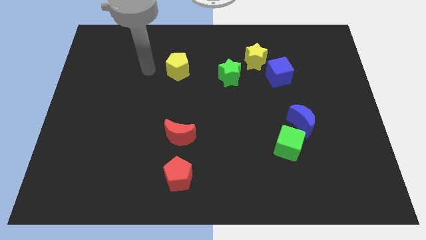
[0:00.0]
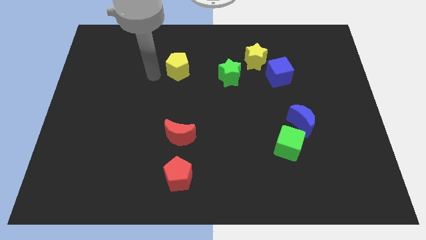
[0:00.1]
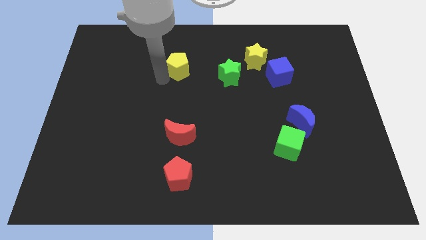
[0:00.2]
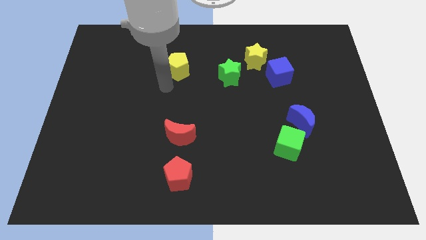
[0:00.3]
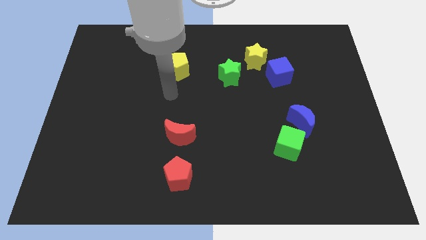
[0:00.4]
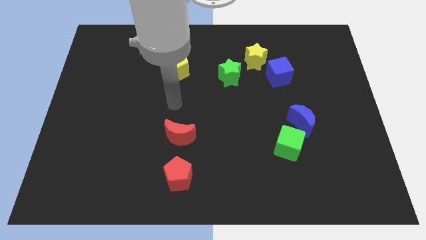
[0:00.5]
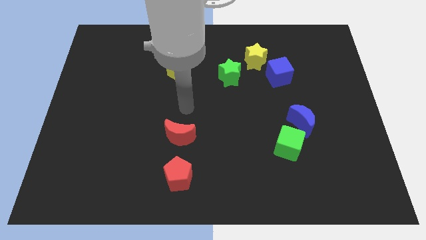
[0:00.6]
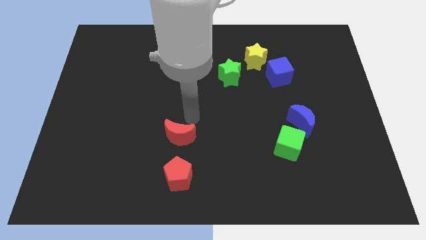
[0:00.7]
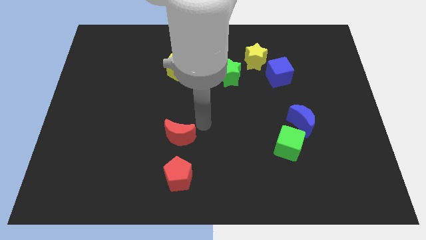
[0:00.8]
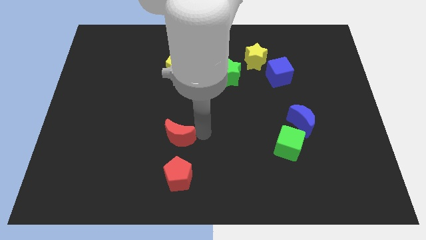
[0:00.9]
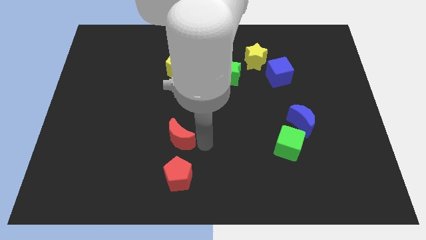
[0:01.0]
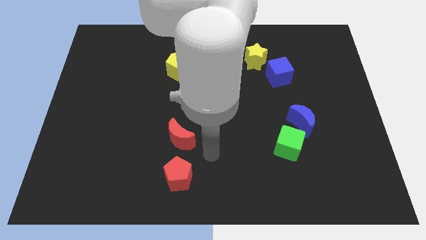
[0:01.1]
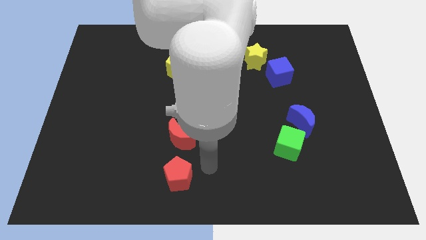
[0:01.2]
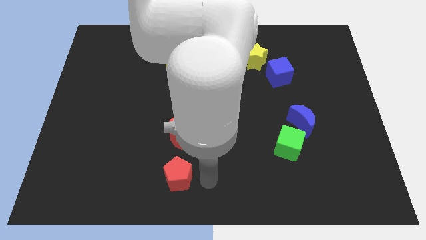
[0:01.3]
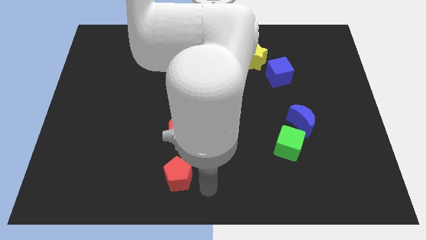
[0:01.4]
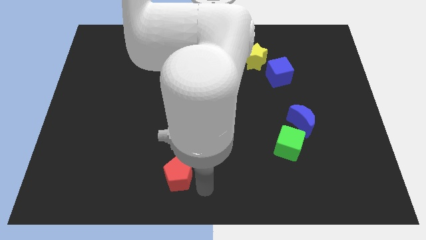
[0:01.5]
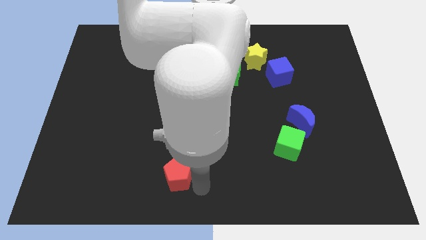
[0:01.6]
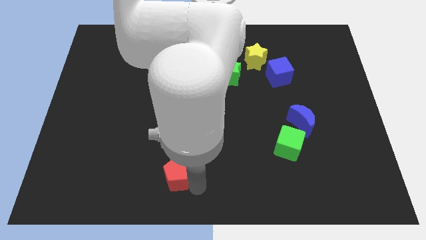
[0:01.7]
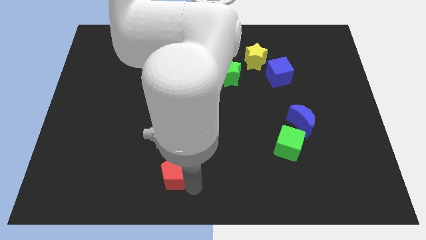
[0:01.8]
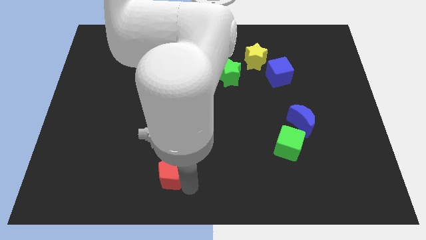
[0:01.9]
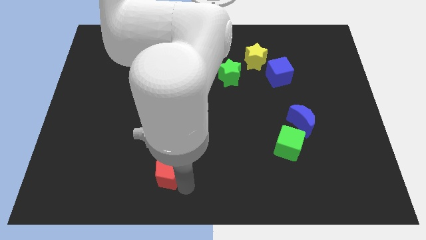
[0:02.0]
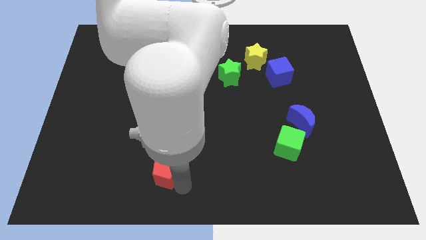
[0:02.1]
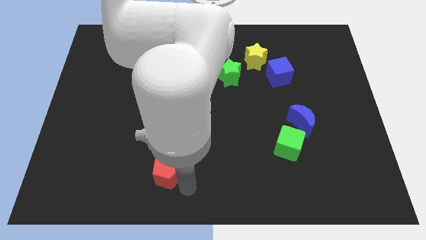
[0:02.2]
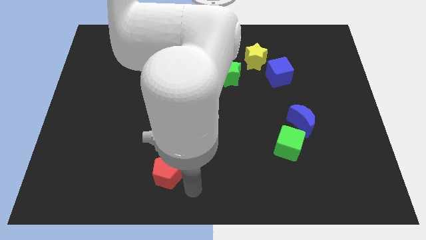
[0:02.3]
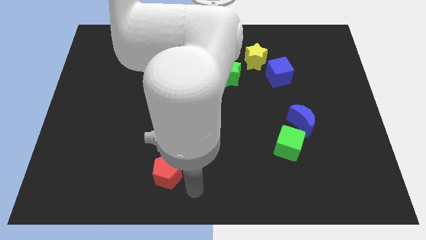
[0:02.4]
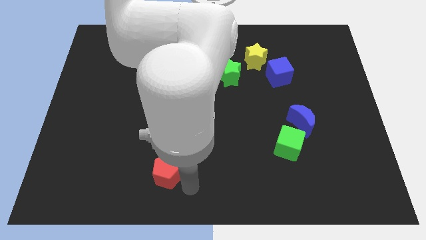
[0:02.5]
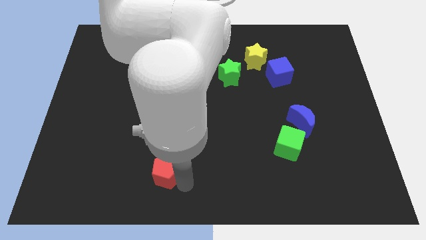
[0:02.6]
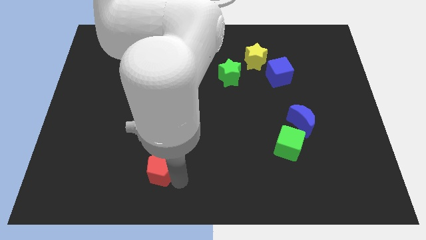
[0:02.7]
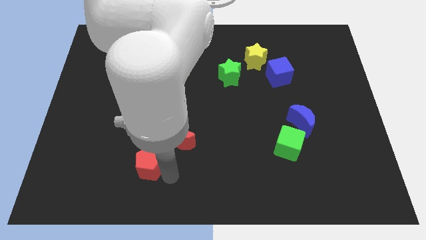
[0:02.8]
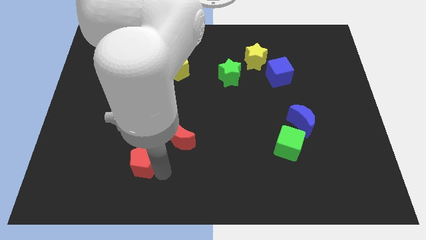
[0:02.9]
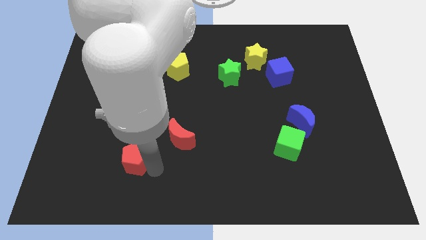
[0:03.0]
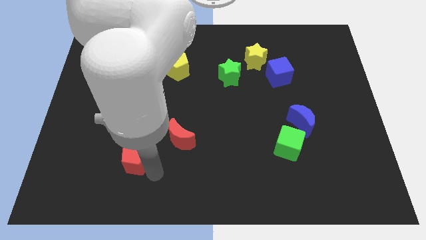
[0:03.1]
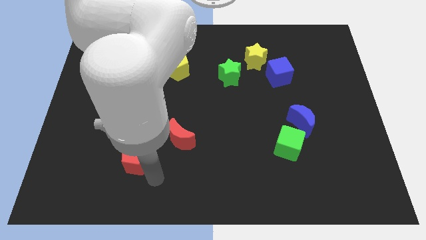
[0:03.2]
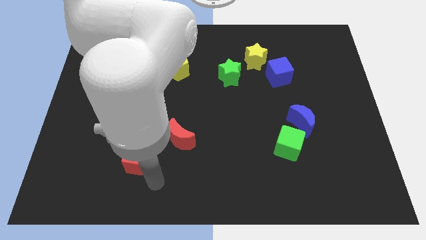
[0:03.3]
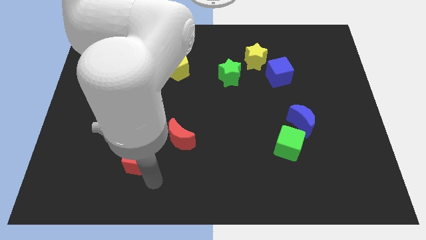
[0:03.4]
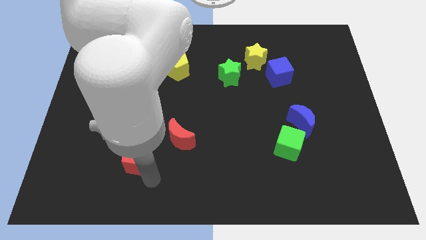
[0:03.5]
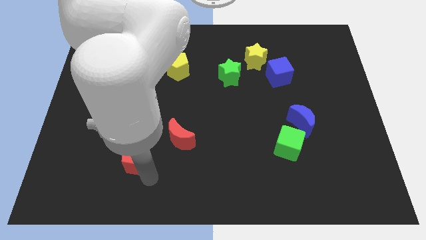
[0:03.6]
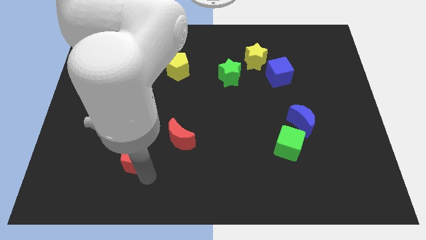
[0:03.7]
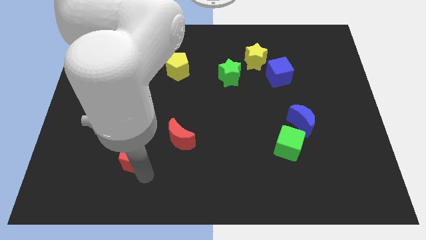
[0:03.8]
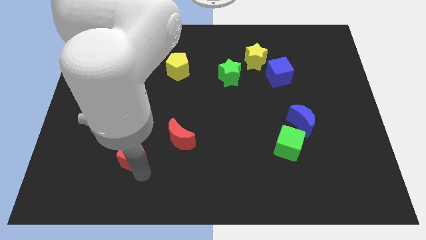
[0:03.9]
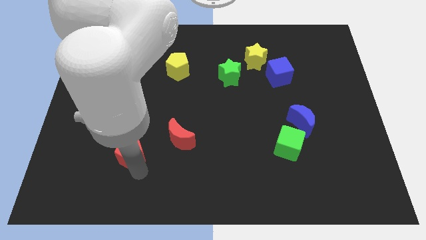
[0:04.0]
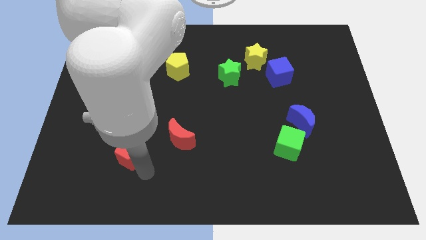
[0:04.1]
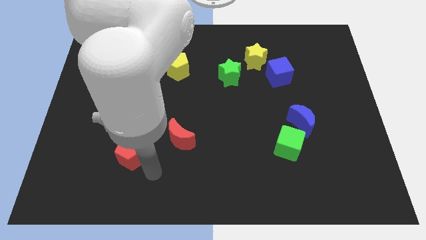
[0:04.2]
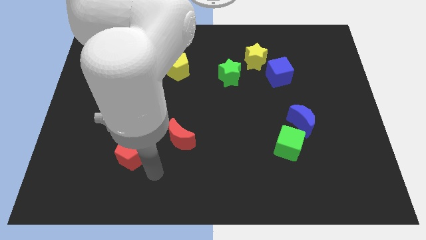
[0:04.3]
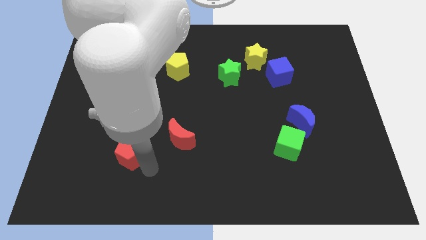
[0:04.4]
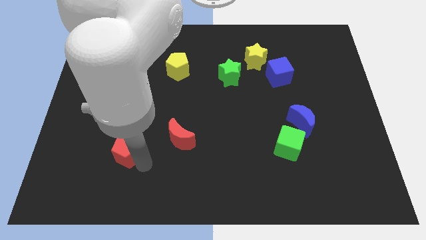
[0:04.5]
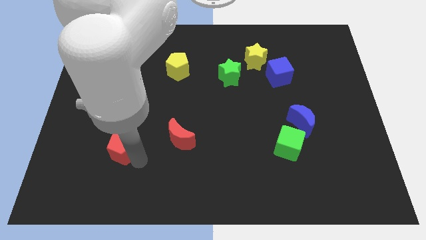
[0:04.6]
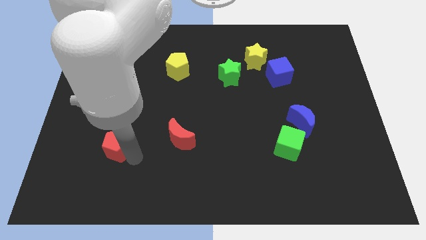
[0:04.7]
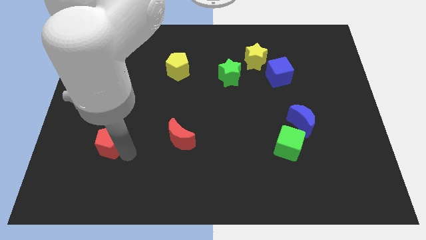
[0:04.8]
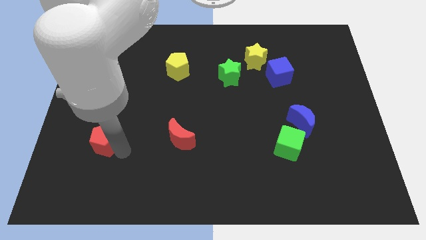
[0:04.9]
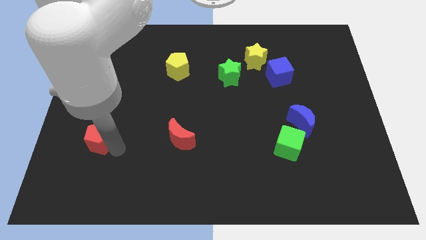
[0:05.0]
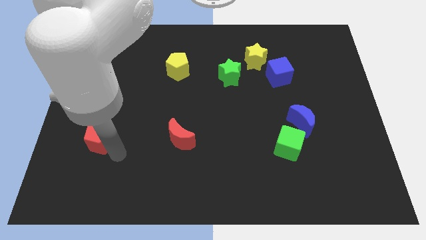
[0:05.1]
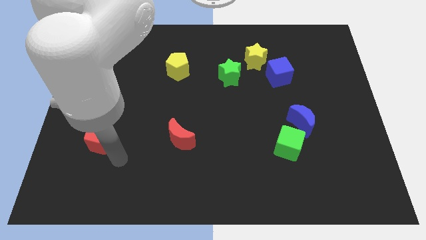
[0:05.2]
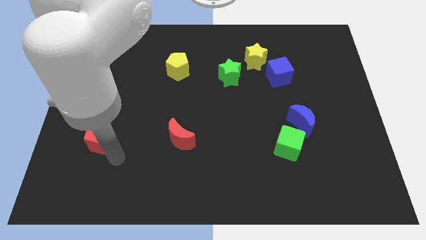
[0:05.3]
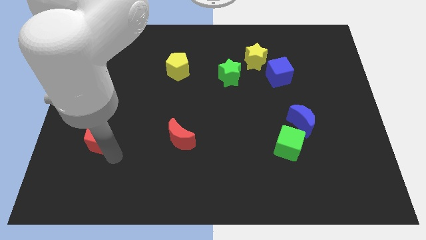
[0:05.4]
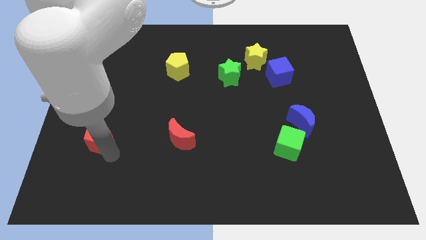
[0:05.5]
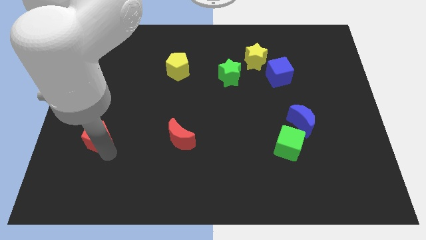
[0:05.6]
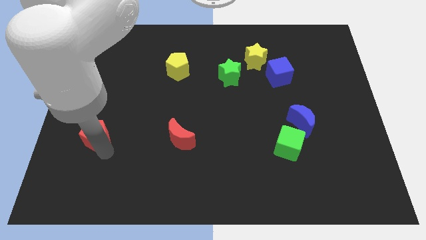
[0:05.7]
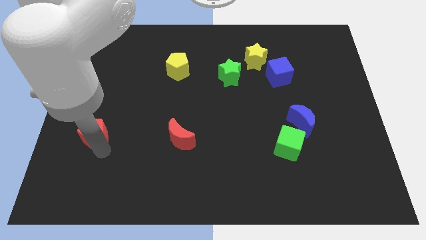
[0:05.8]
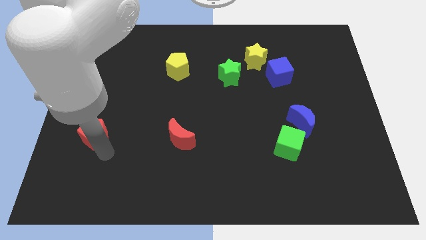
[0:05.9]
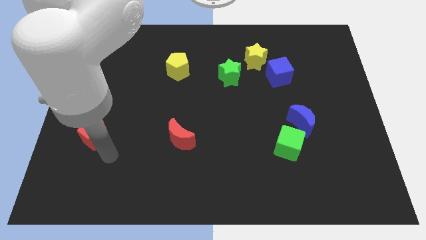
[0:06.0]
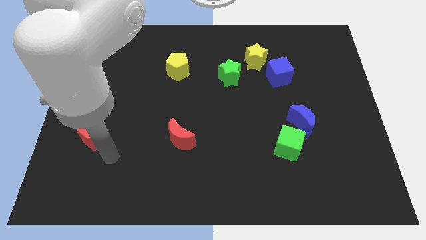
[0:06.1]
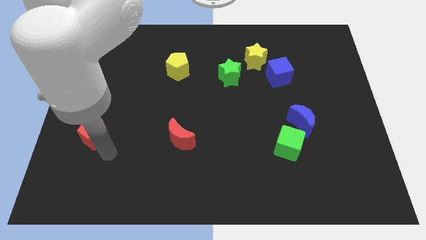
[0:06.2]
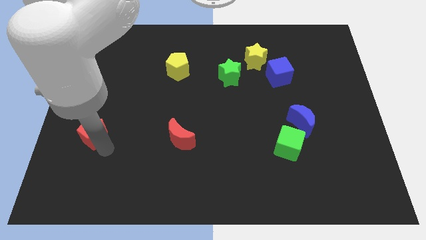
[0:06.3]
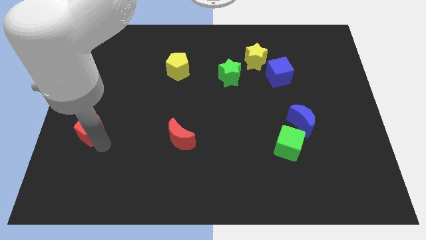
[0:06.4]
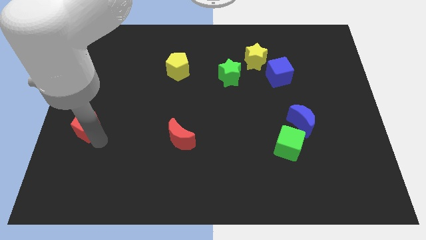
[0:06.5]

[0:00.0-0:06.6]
slide the red pentagon to the left side
